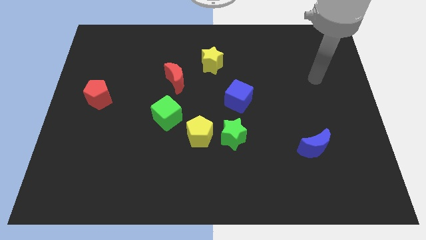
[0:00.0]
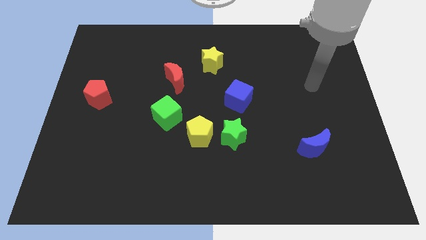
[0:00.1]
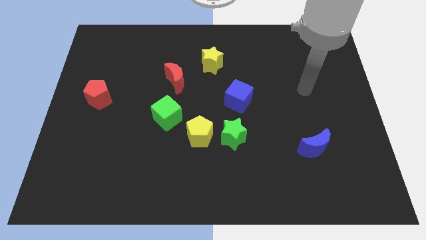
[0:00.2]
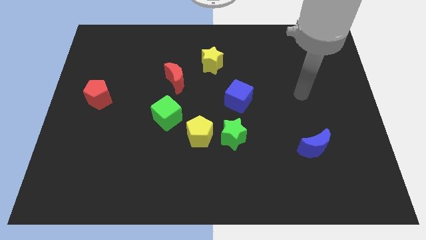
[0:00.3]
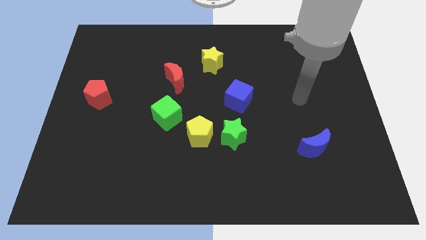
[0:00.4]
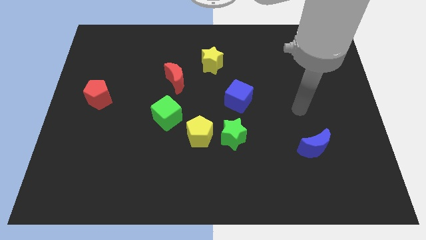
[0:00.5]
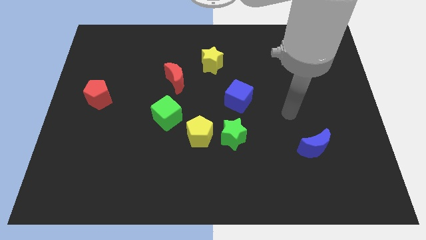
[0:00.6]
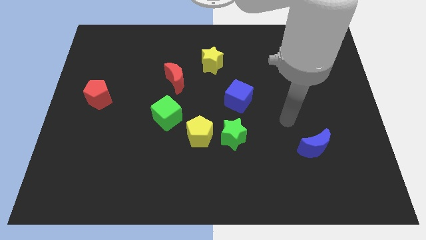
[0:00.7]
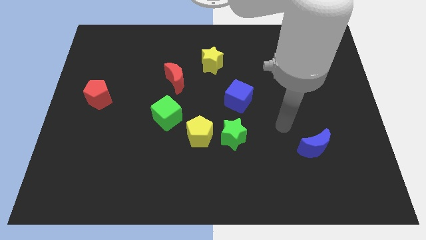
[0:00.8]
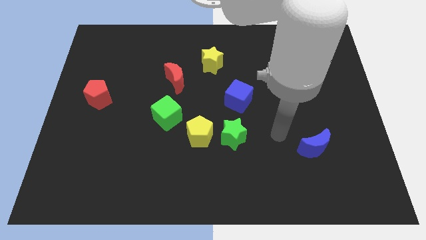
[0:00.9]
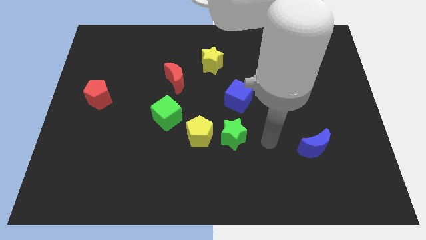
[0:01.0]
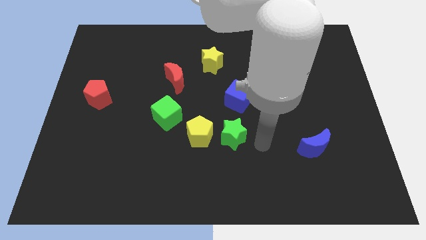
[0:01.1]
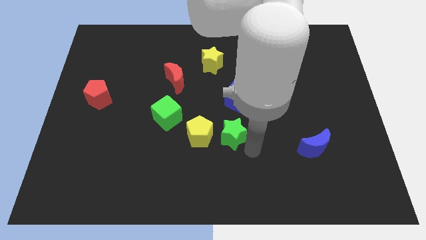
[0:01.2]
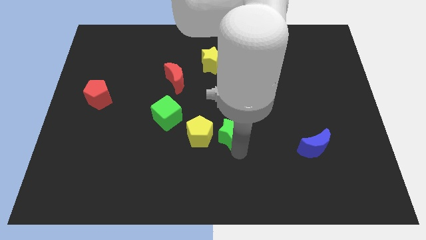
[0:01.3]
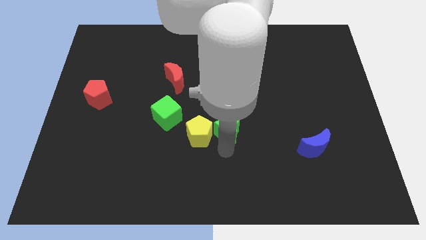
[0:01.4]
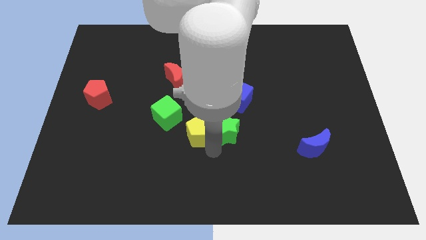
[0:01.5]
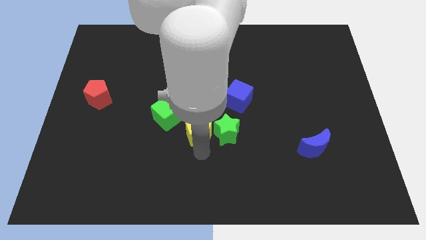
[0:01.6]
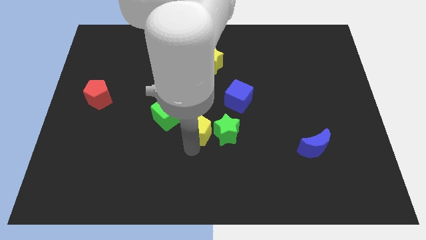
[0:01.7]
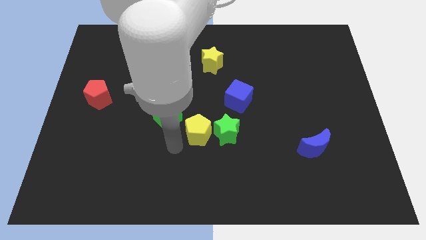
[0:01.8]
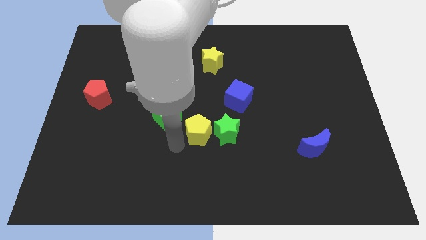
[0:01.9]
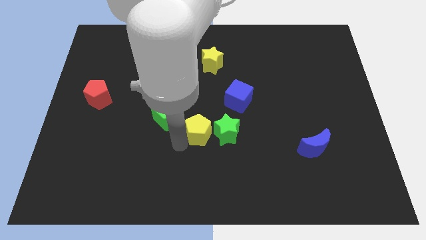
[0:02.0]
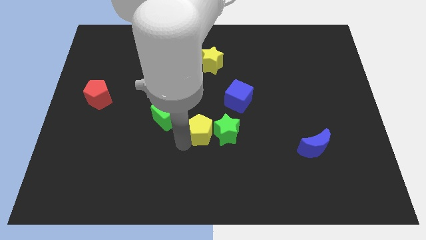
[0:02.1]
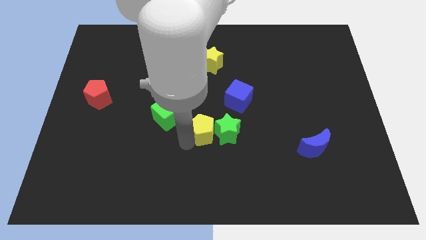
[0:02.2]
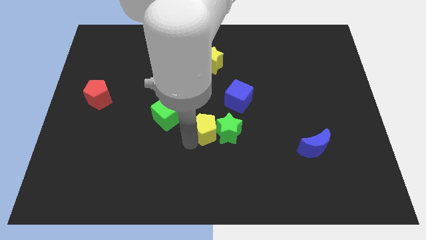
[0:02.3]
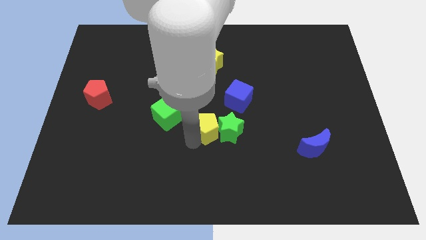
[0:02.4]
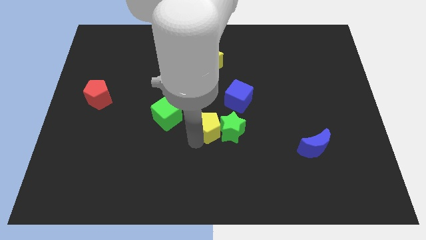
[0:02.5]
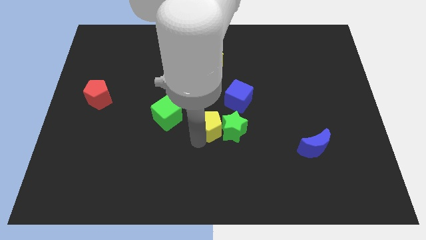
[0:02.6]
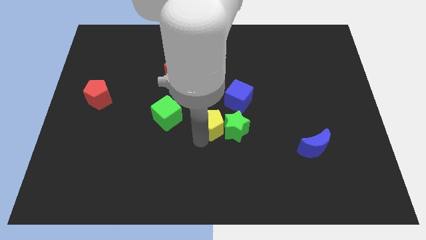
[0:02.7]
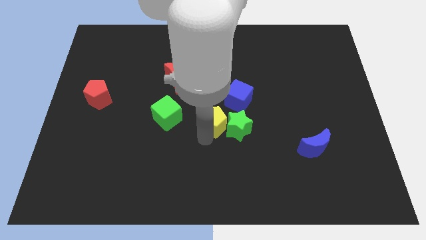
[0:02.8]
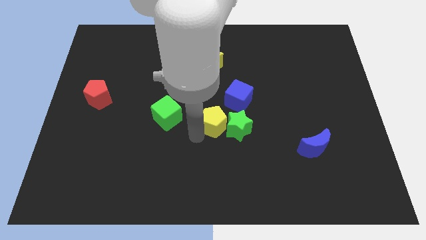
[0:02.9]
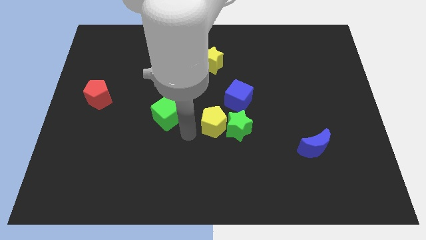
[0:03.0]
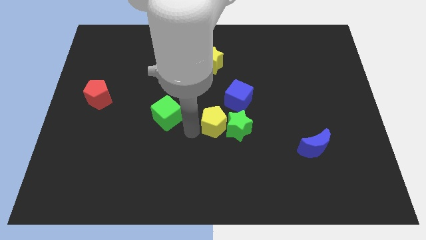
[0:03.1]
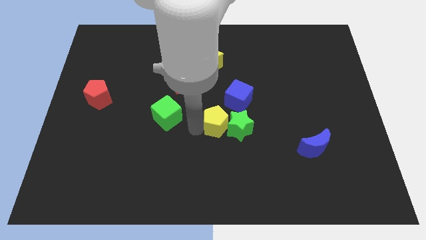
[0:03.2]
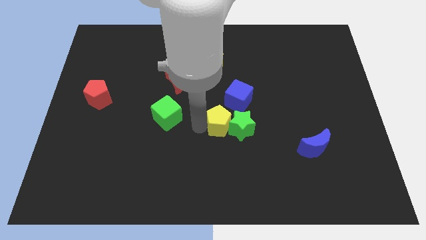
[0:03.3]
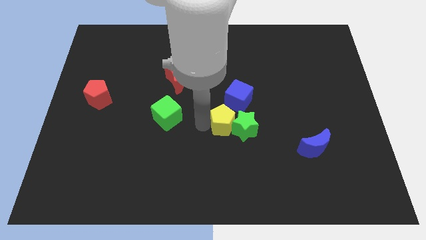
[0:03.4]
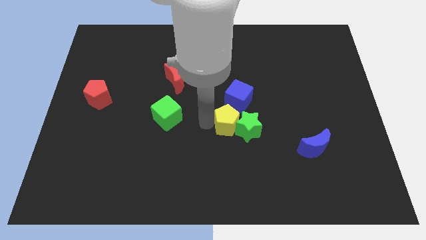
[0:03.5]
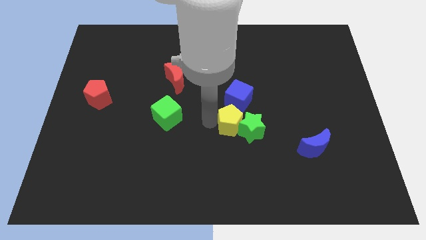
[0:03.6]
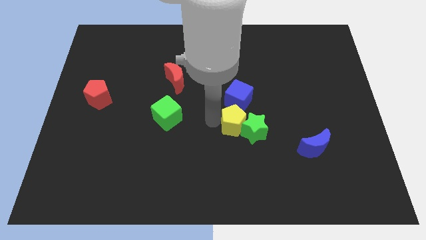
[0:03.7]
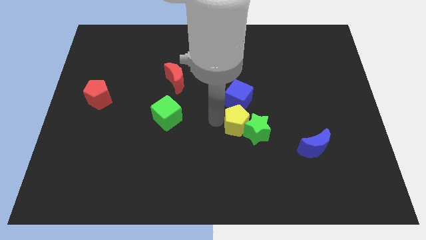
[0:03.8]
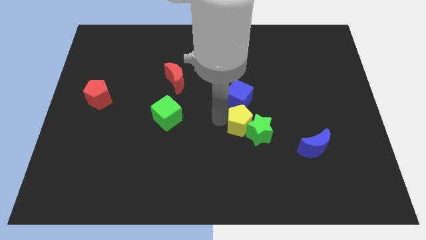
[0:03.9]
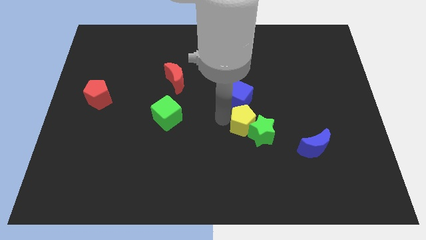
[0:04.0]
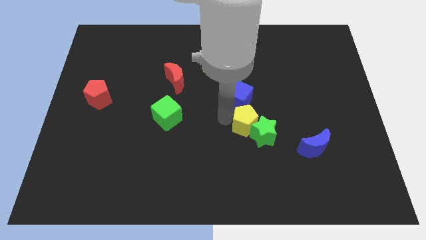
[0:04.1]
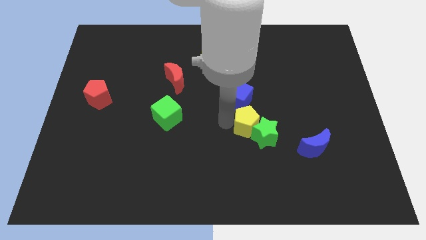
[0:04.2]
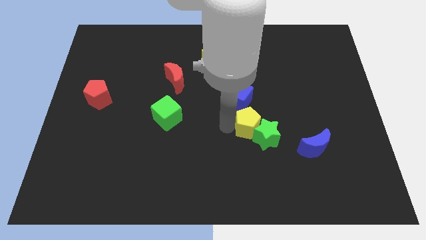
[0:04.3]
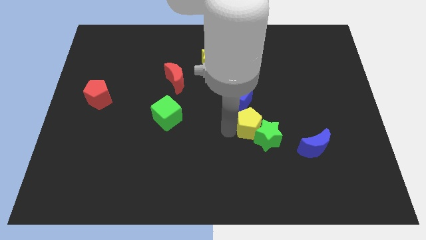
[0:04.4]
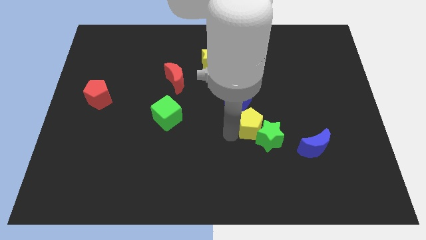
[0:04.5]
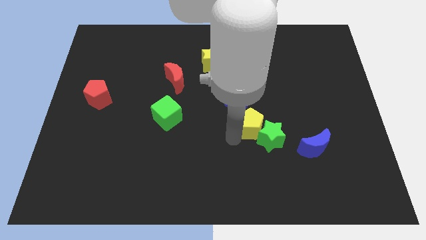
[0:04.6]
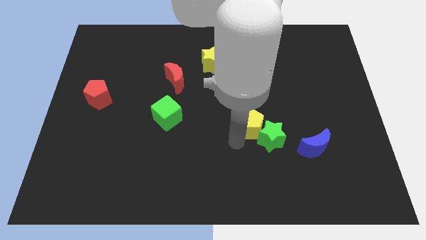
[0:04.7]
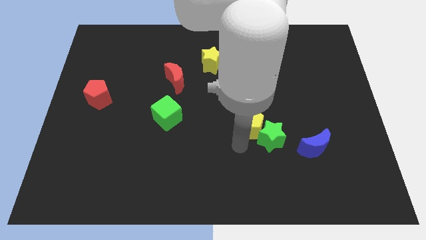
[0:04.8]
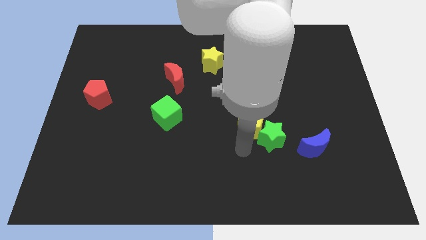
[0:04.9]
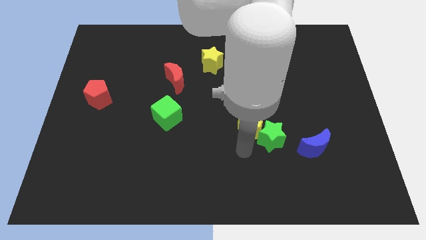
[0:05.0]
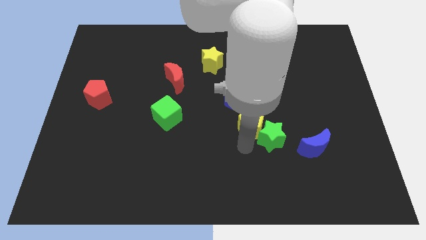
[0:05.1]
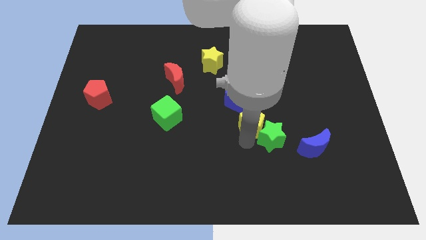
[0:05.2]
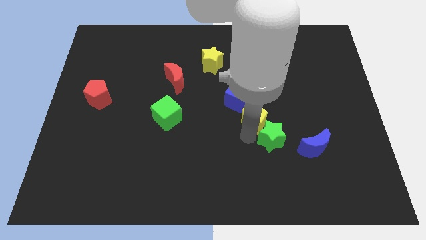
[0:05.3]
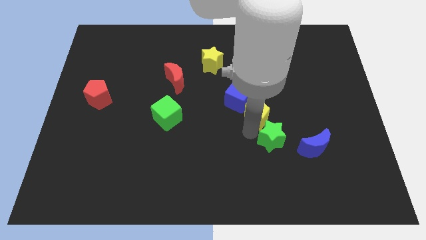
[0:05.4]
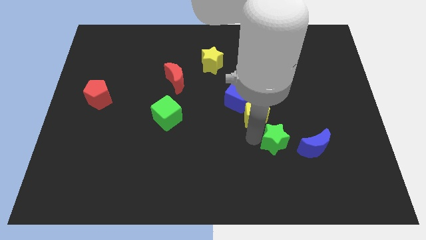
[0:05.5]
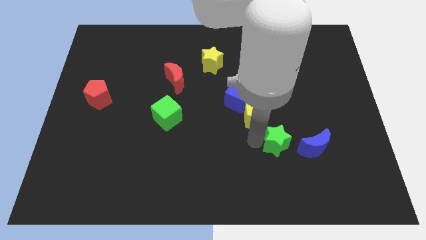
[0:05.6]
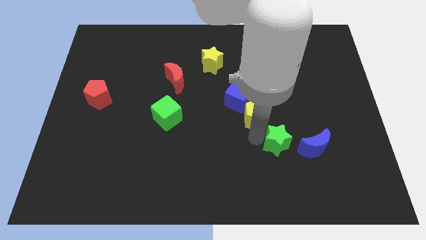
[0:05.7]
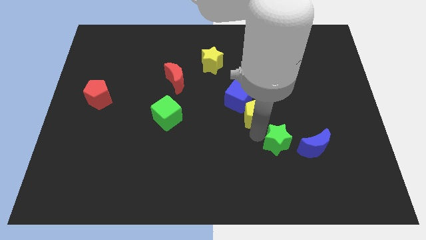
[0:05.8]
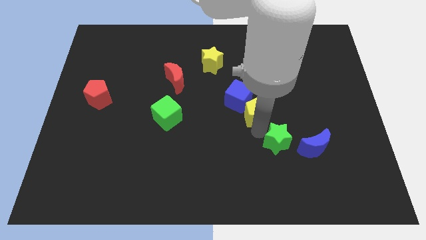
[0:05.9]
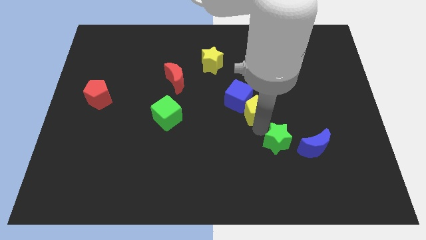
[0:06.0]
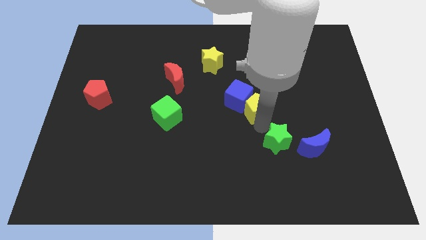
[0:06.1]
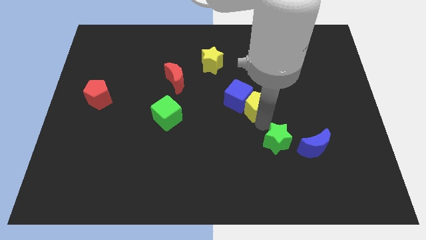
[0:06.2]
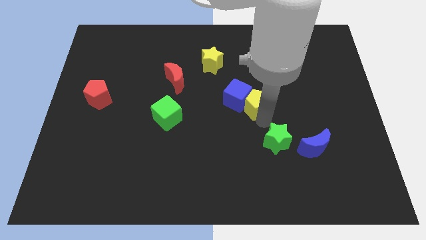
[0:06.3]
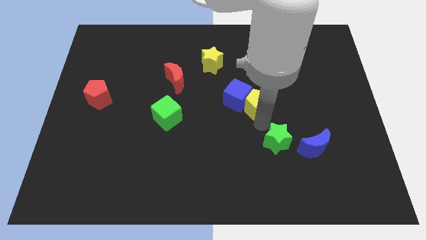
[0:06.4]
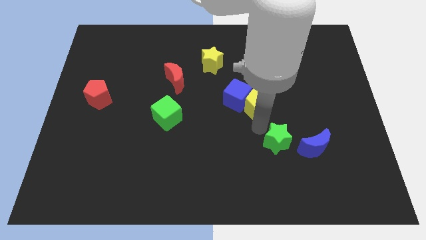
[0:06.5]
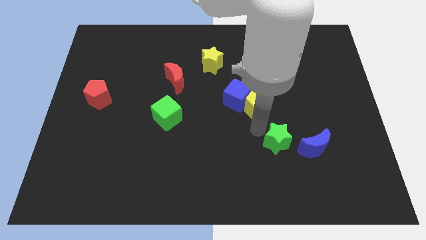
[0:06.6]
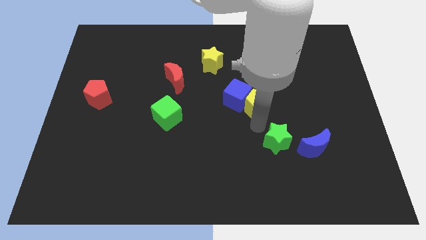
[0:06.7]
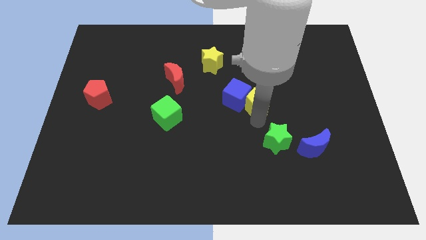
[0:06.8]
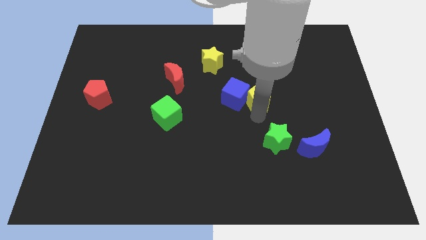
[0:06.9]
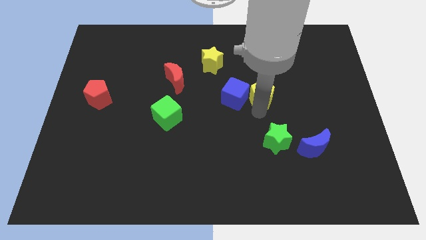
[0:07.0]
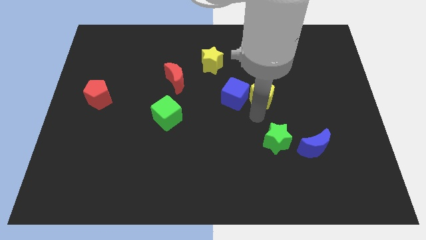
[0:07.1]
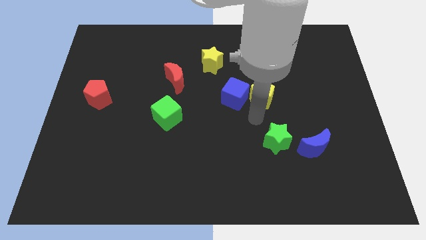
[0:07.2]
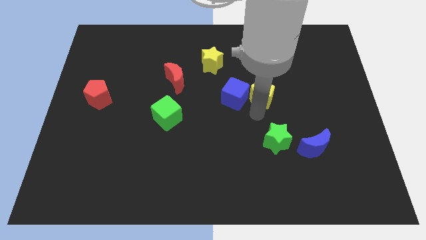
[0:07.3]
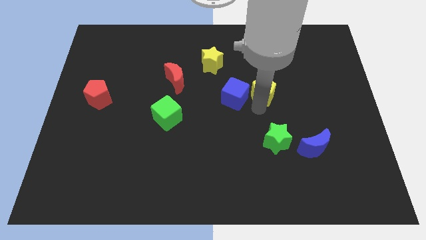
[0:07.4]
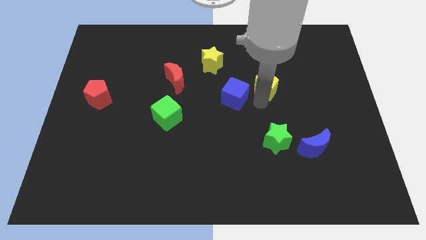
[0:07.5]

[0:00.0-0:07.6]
slide the yellow pentagon up and right diagonally

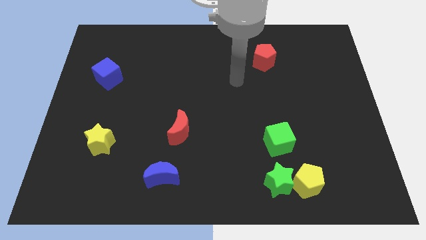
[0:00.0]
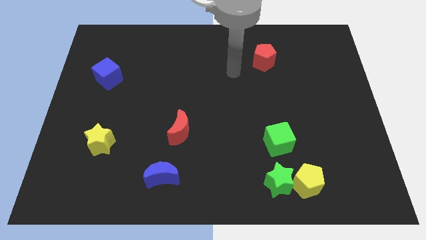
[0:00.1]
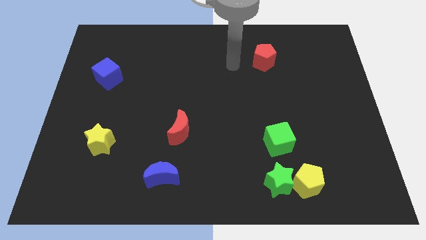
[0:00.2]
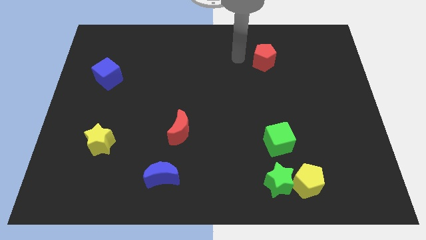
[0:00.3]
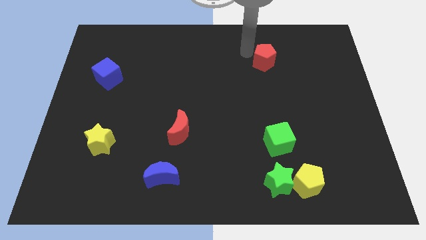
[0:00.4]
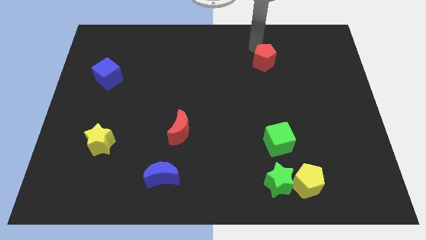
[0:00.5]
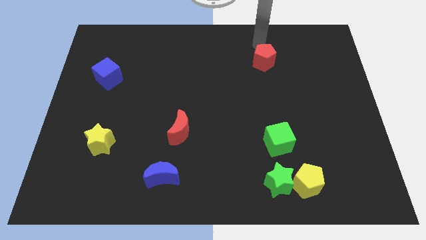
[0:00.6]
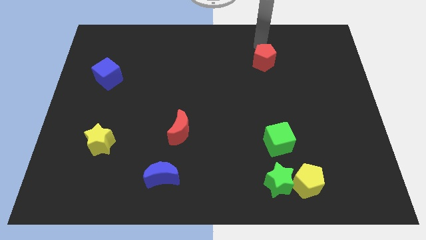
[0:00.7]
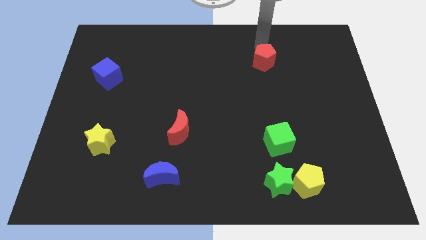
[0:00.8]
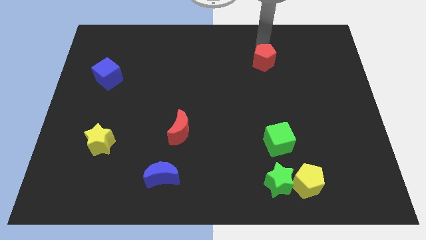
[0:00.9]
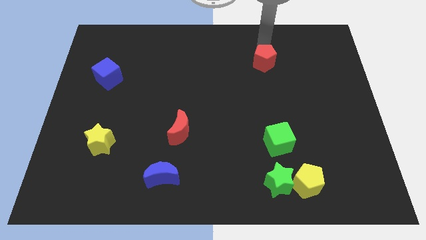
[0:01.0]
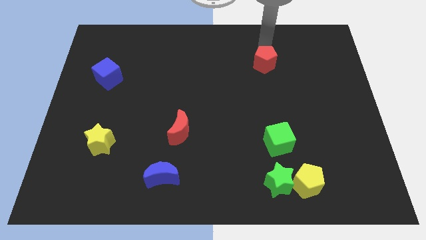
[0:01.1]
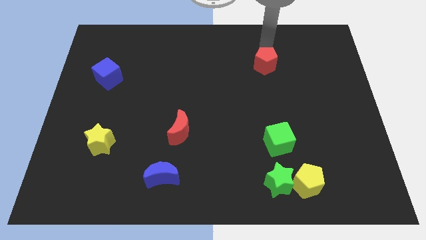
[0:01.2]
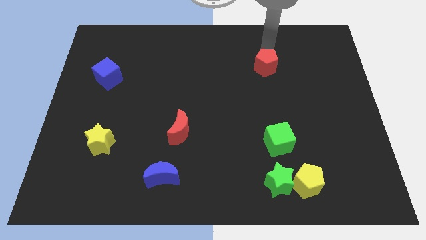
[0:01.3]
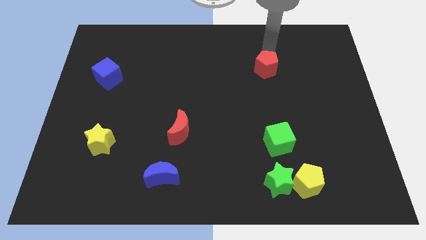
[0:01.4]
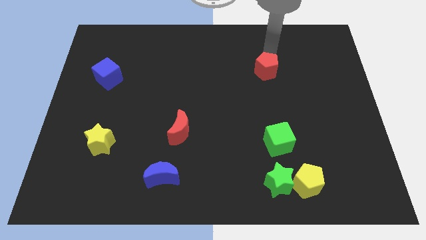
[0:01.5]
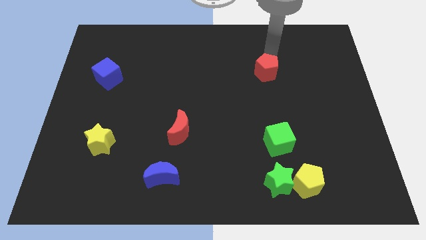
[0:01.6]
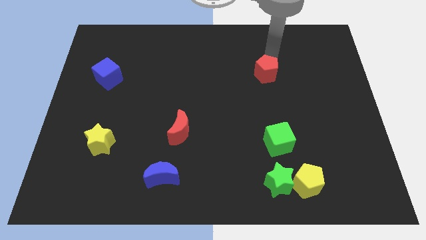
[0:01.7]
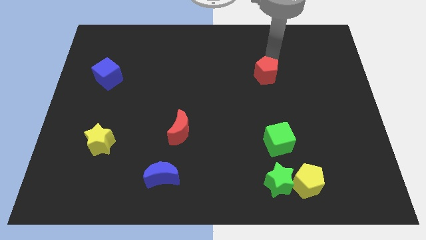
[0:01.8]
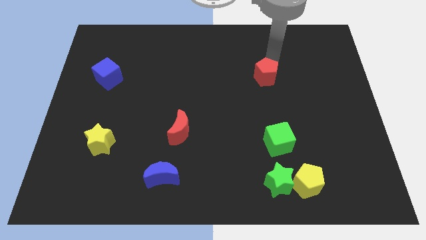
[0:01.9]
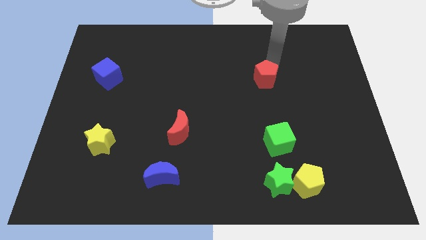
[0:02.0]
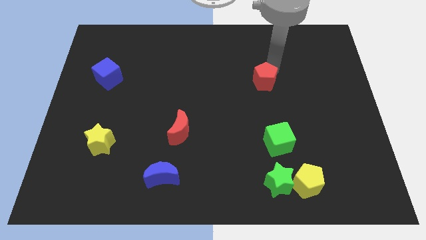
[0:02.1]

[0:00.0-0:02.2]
slightly push the red pentagon downwards
